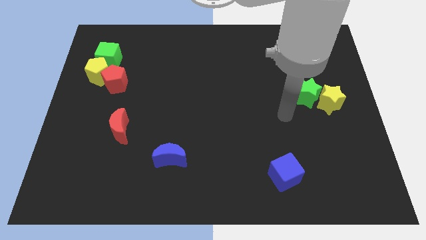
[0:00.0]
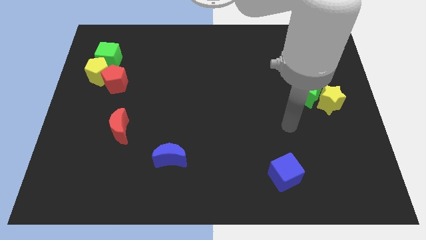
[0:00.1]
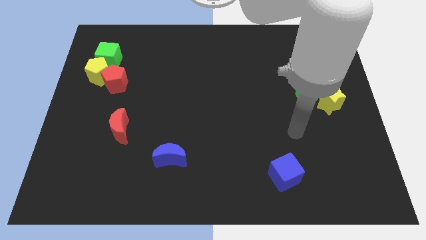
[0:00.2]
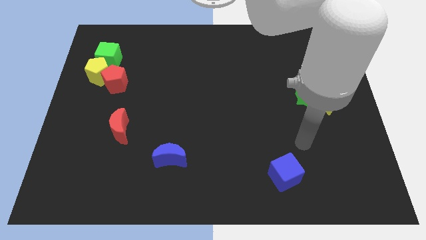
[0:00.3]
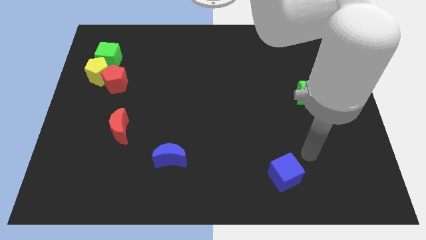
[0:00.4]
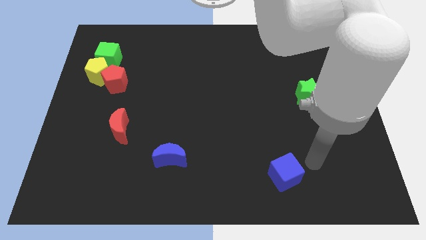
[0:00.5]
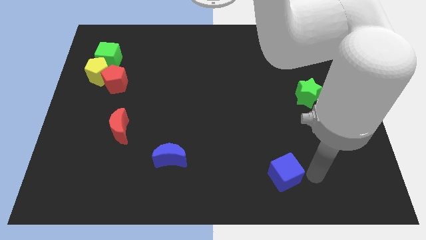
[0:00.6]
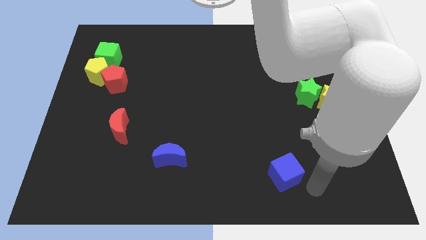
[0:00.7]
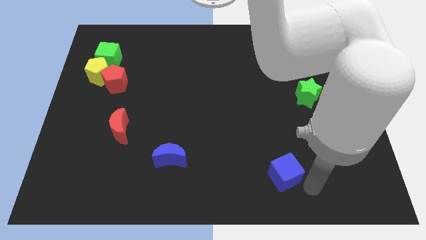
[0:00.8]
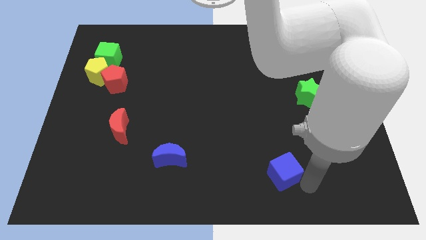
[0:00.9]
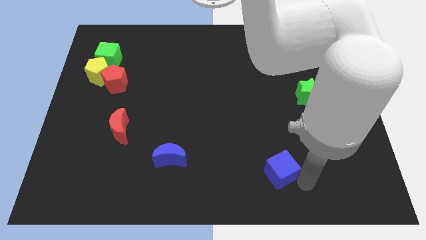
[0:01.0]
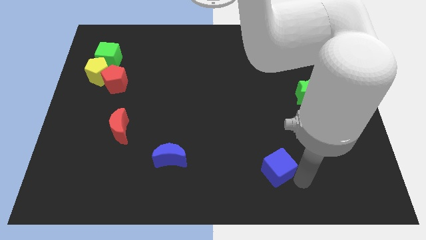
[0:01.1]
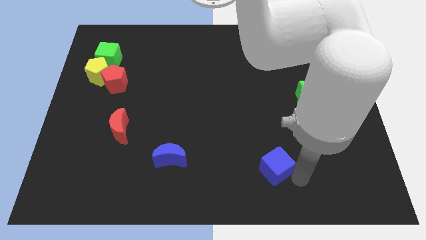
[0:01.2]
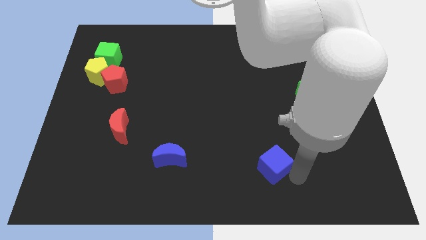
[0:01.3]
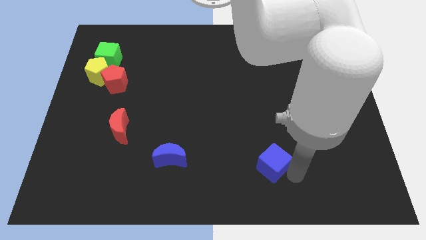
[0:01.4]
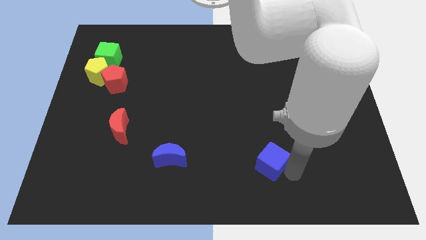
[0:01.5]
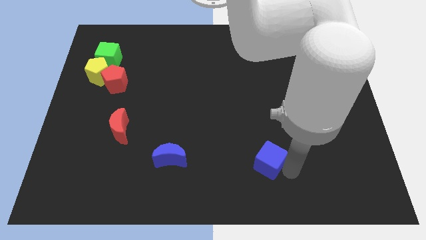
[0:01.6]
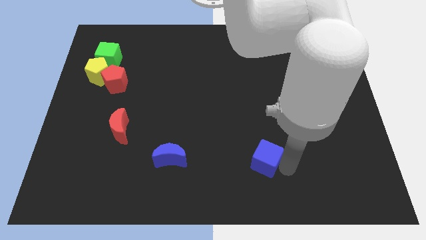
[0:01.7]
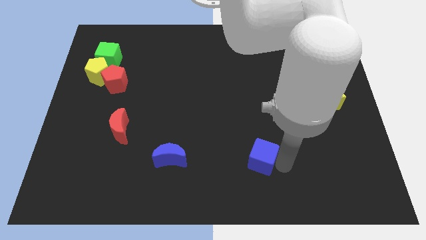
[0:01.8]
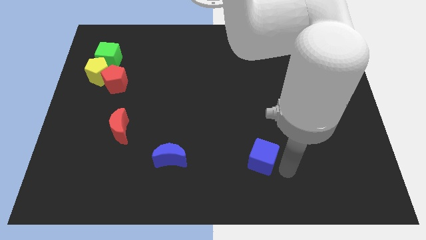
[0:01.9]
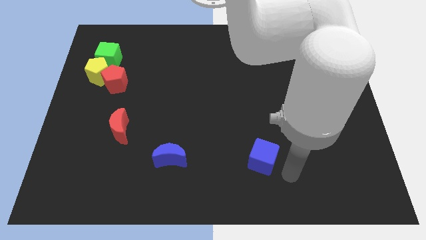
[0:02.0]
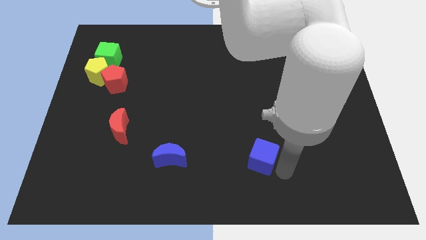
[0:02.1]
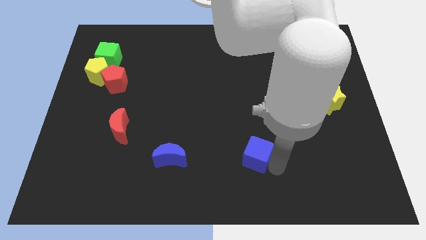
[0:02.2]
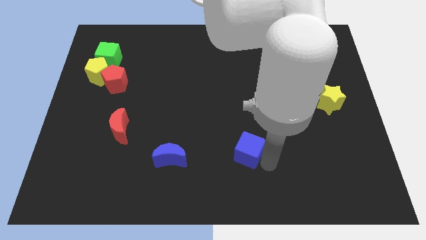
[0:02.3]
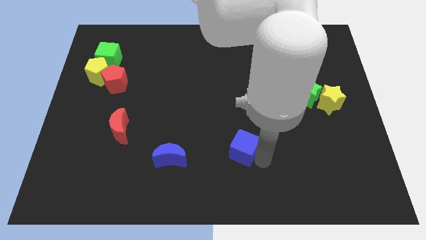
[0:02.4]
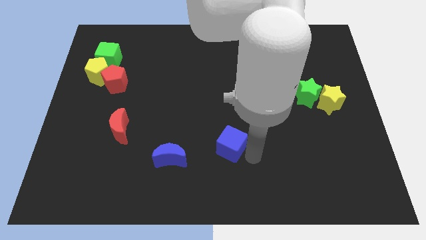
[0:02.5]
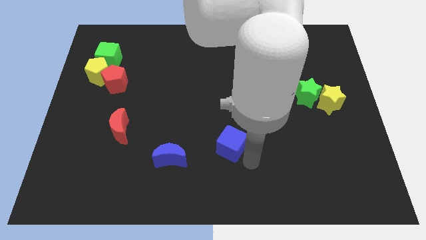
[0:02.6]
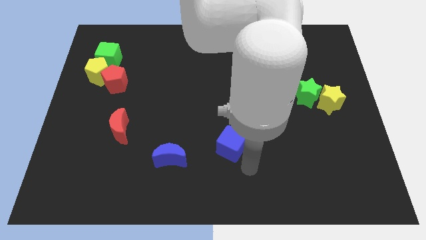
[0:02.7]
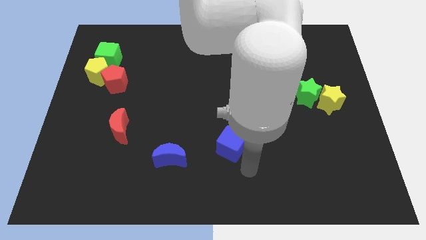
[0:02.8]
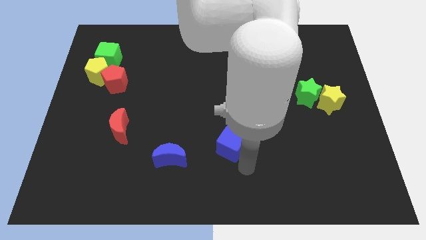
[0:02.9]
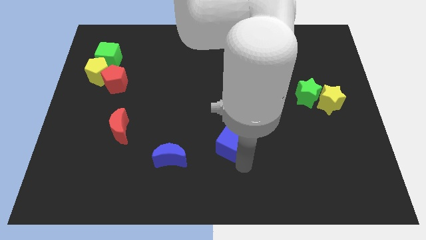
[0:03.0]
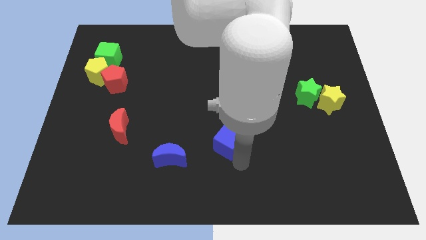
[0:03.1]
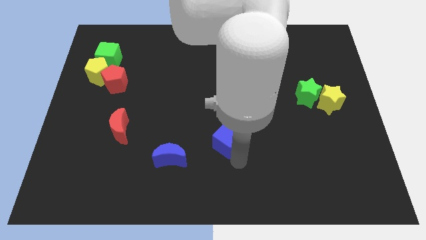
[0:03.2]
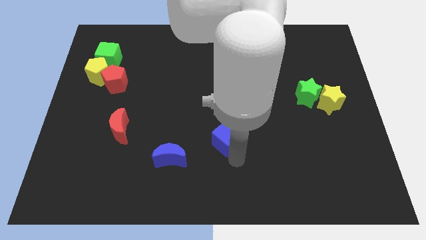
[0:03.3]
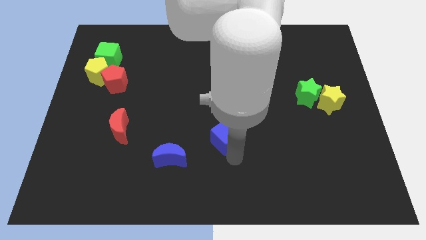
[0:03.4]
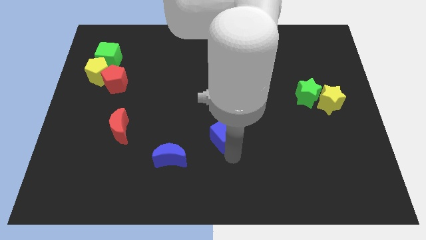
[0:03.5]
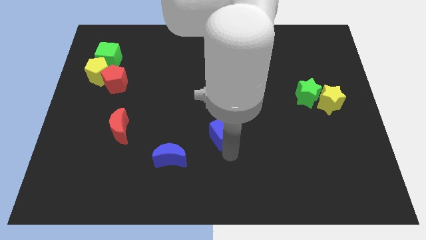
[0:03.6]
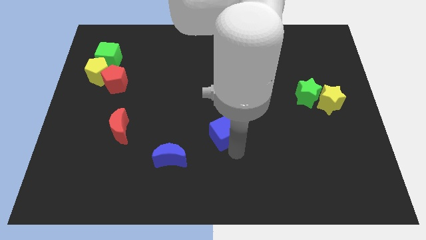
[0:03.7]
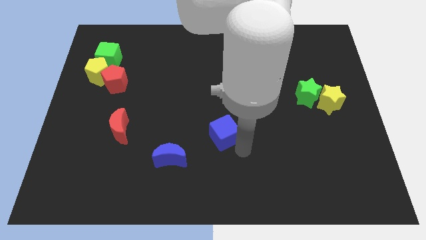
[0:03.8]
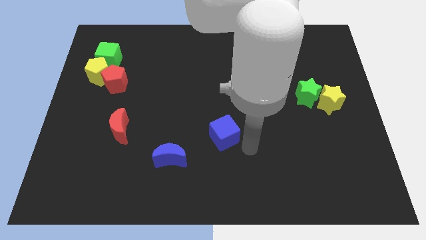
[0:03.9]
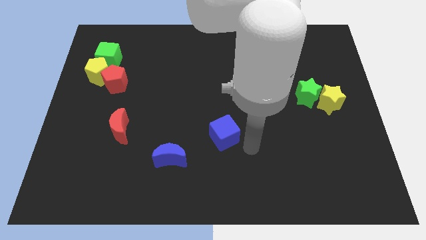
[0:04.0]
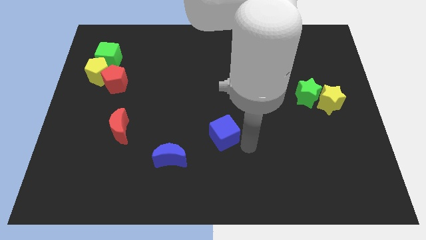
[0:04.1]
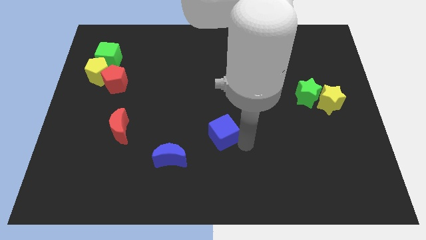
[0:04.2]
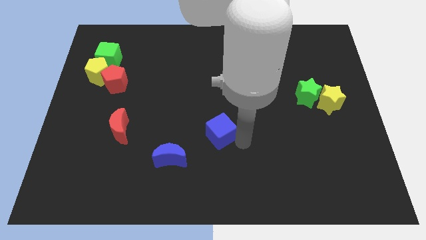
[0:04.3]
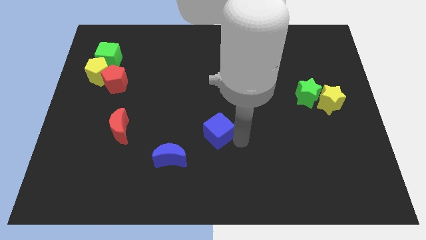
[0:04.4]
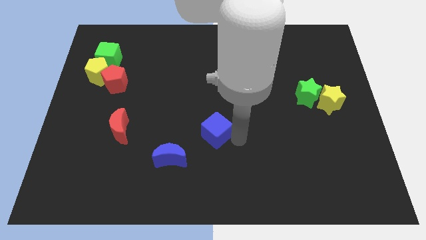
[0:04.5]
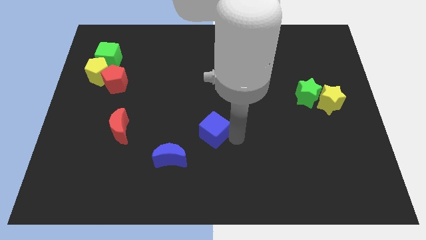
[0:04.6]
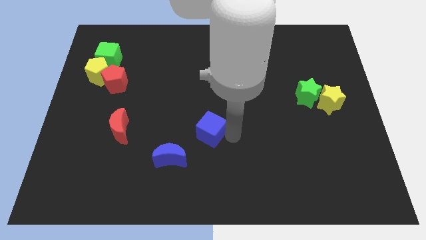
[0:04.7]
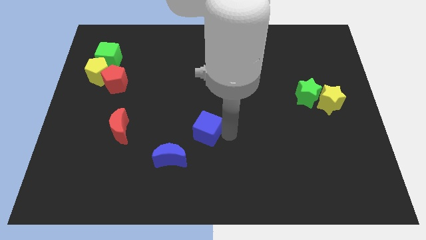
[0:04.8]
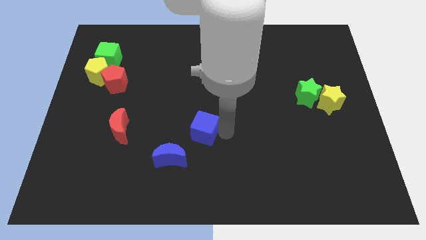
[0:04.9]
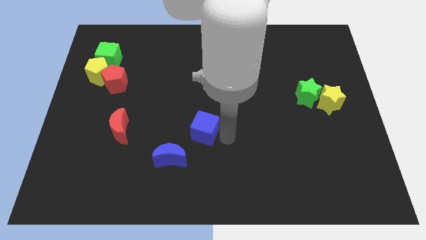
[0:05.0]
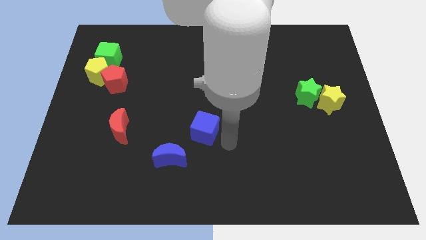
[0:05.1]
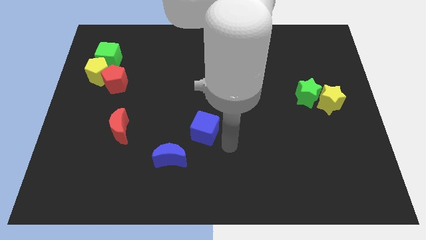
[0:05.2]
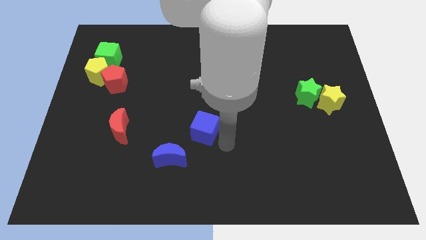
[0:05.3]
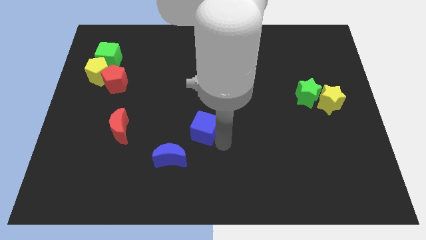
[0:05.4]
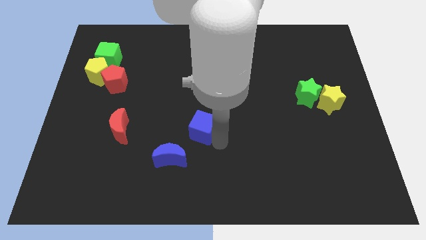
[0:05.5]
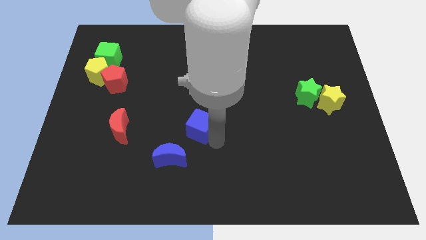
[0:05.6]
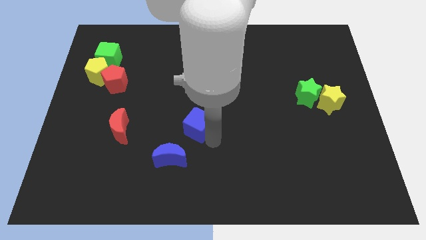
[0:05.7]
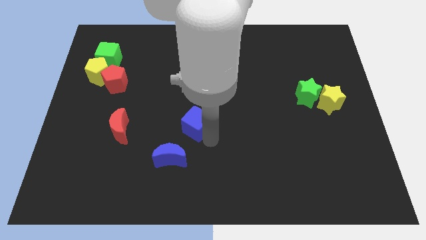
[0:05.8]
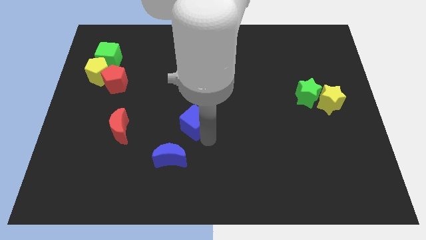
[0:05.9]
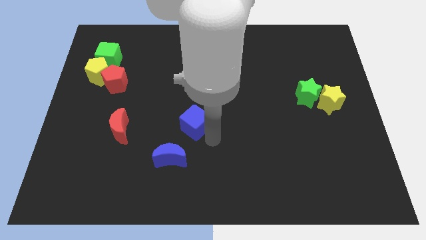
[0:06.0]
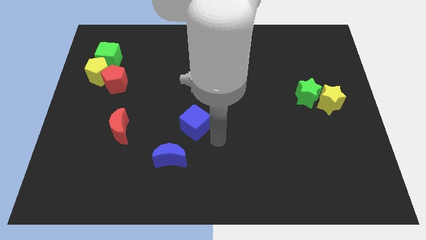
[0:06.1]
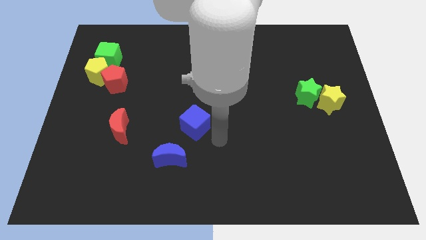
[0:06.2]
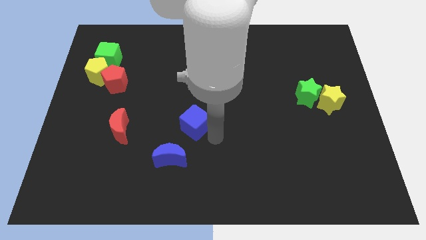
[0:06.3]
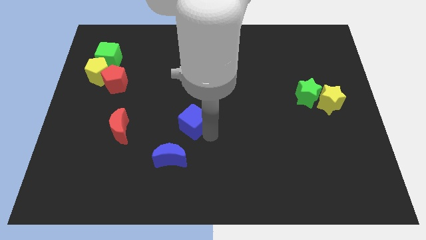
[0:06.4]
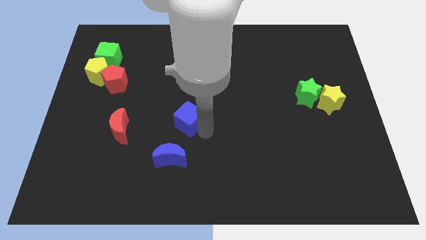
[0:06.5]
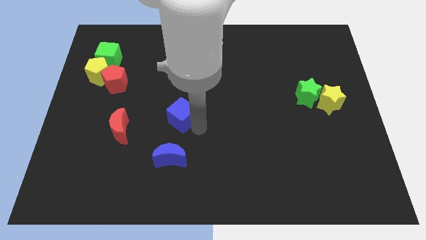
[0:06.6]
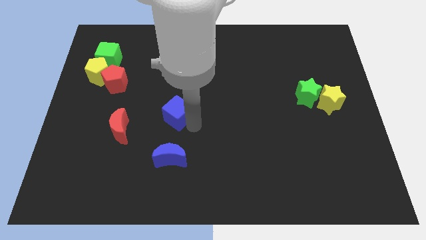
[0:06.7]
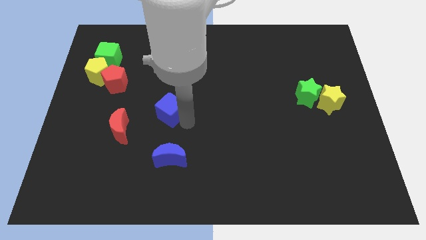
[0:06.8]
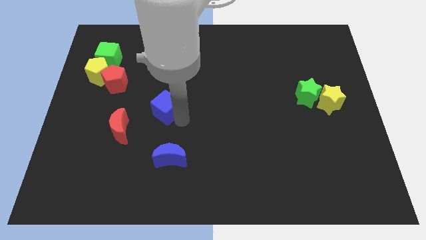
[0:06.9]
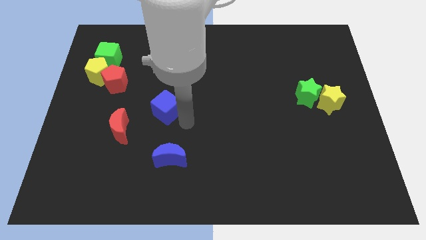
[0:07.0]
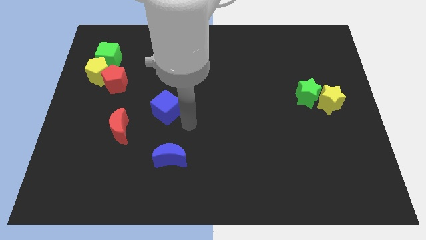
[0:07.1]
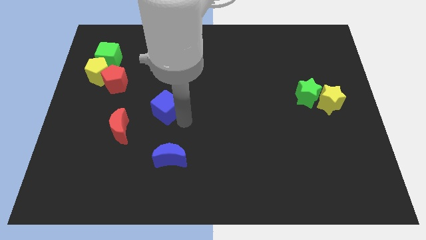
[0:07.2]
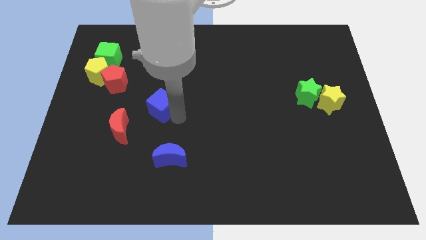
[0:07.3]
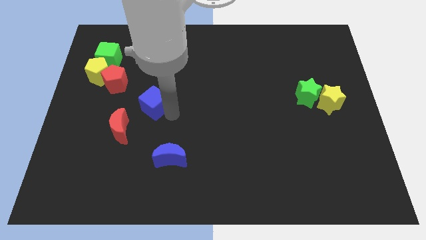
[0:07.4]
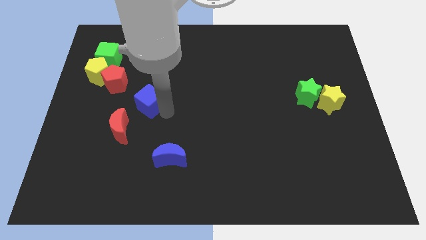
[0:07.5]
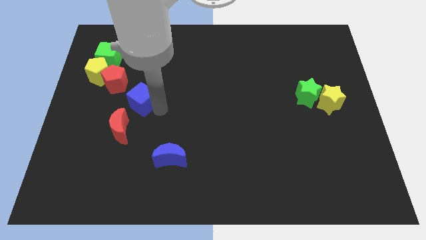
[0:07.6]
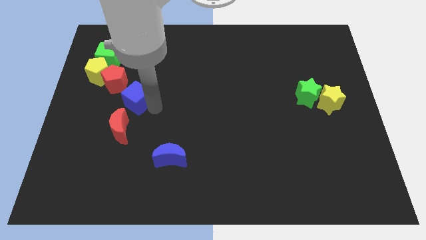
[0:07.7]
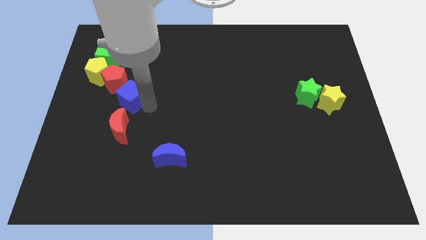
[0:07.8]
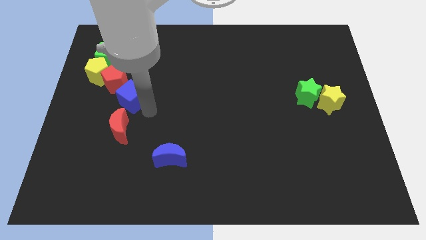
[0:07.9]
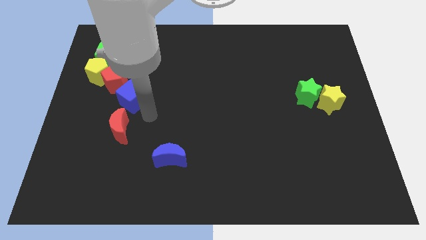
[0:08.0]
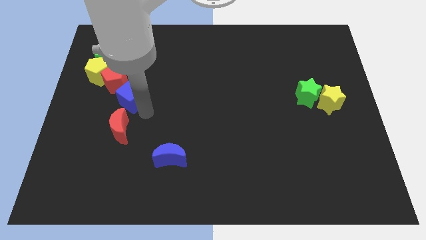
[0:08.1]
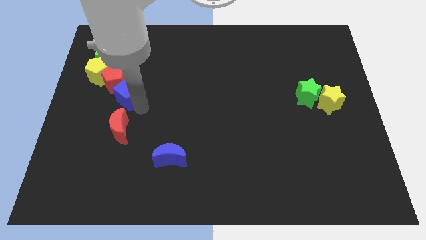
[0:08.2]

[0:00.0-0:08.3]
move the blue cube to the red pentagon
